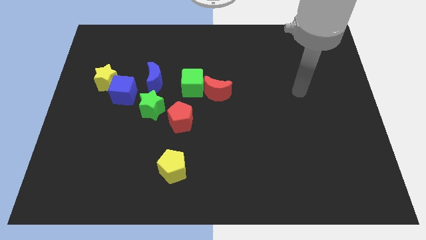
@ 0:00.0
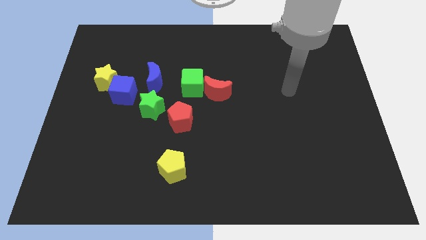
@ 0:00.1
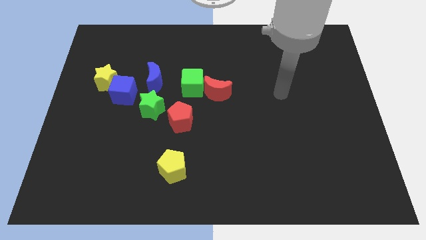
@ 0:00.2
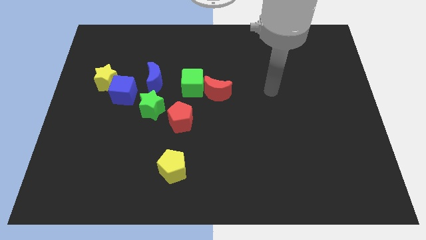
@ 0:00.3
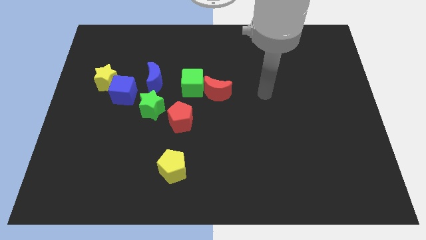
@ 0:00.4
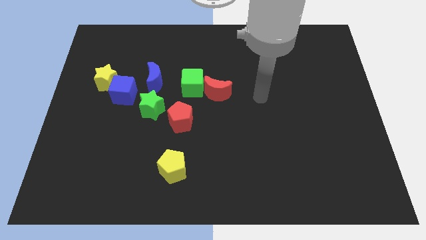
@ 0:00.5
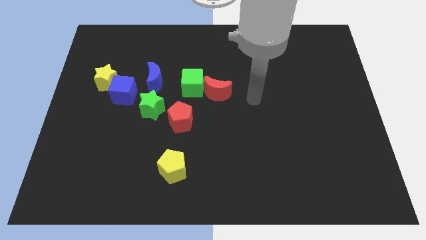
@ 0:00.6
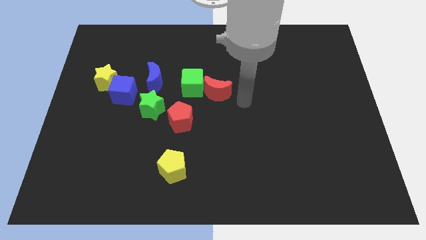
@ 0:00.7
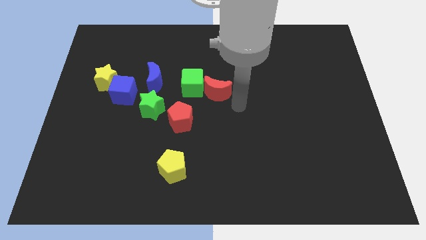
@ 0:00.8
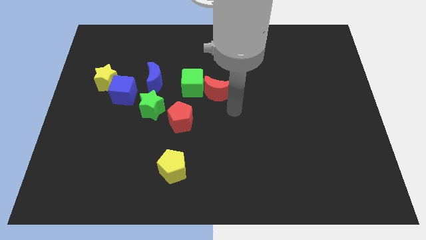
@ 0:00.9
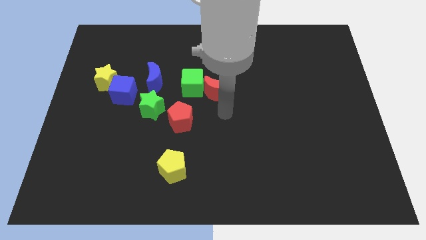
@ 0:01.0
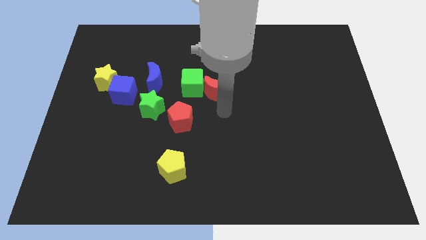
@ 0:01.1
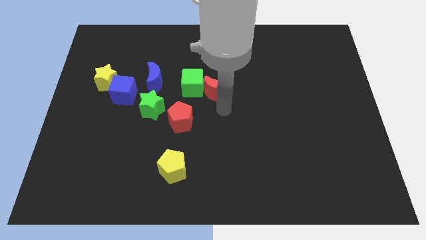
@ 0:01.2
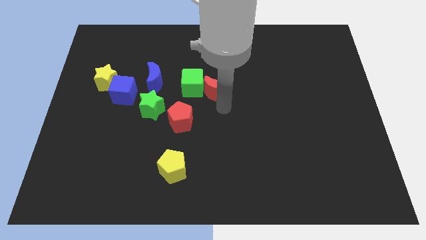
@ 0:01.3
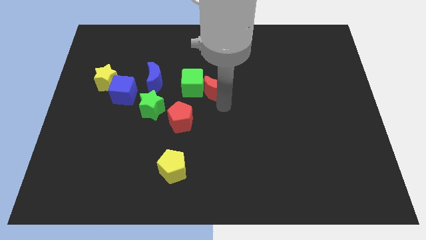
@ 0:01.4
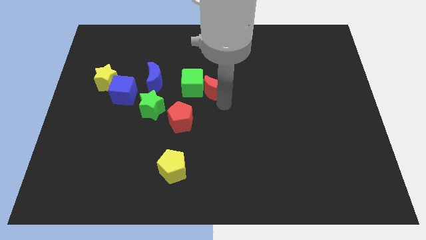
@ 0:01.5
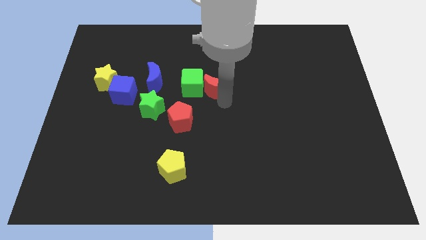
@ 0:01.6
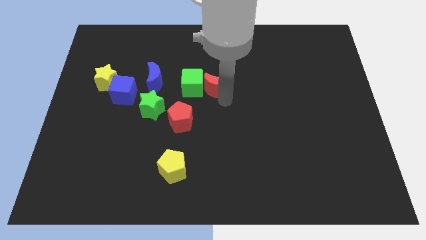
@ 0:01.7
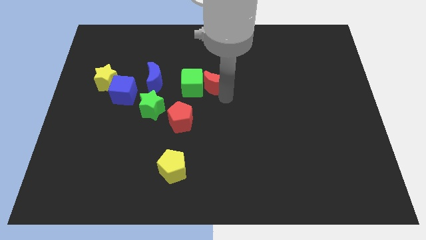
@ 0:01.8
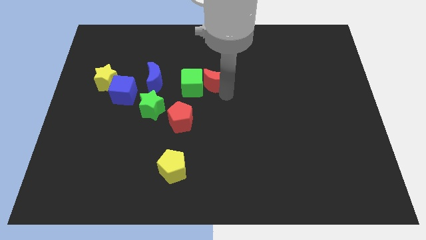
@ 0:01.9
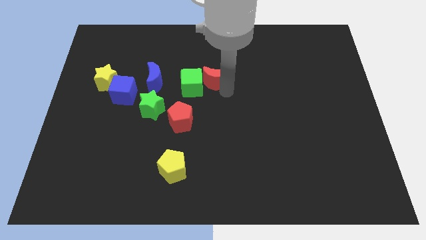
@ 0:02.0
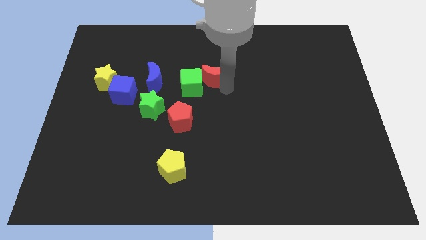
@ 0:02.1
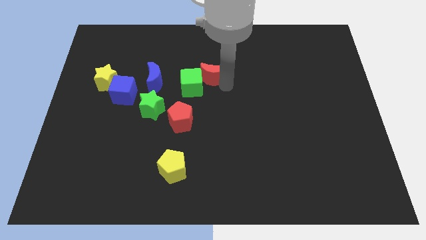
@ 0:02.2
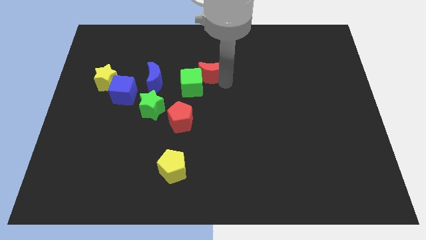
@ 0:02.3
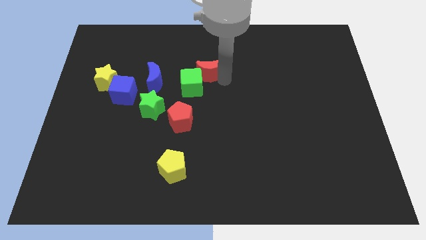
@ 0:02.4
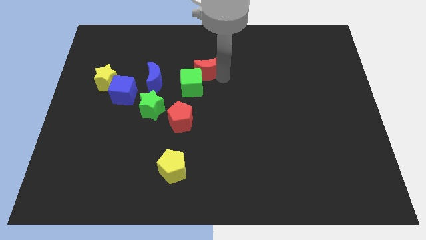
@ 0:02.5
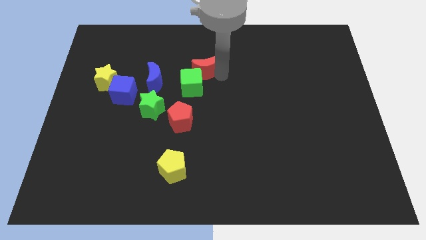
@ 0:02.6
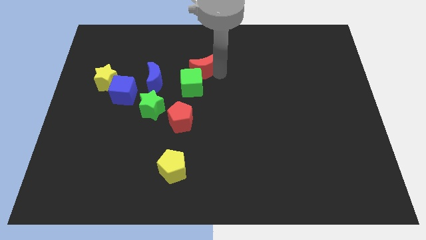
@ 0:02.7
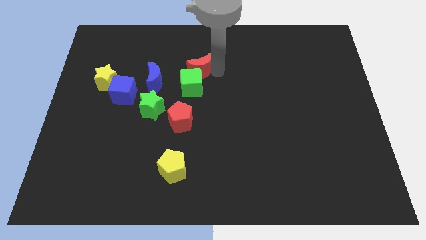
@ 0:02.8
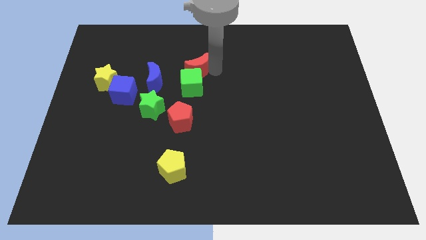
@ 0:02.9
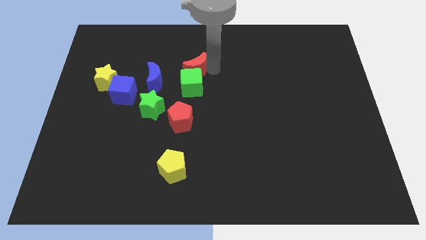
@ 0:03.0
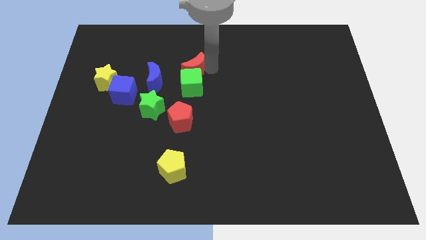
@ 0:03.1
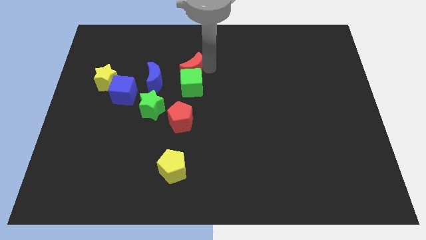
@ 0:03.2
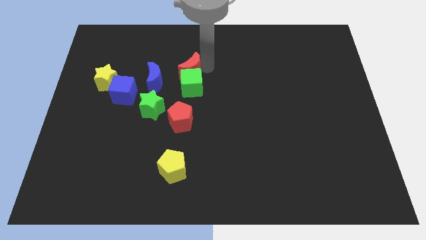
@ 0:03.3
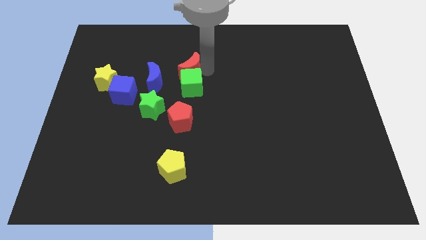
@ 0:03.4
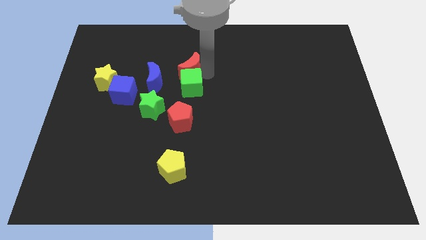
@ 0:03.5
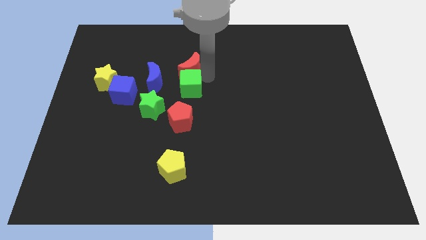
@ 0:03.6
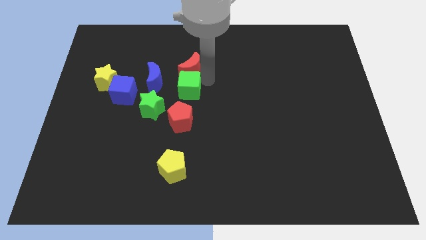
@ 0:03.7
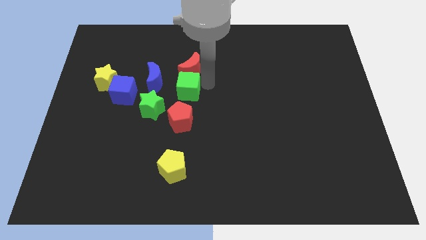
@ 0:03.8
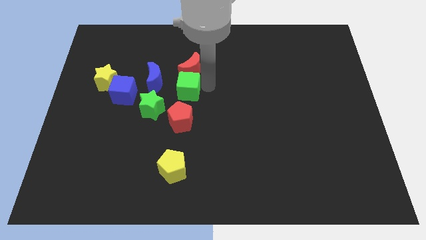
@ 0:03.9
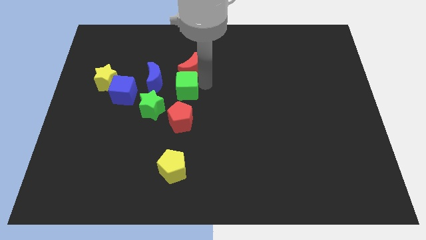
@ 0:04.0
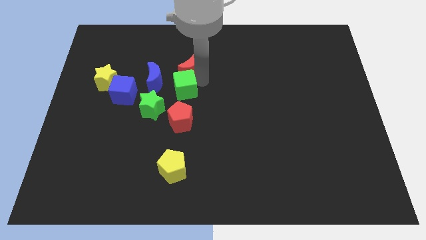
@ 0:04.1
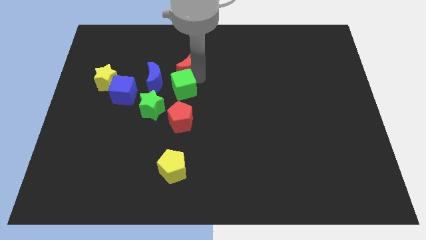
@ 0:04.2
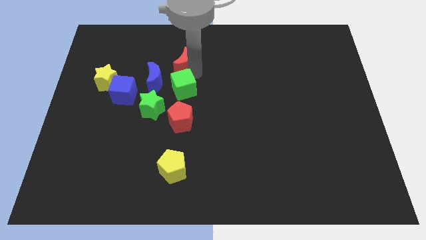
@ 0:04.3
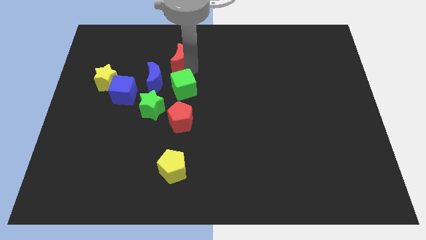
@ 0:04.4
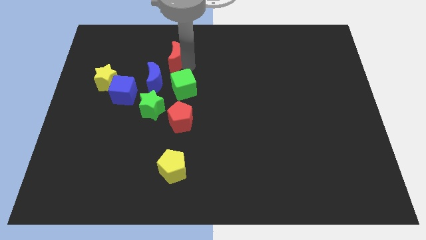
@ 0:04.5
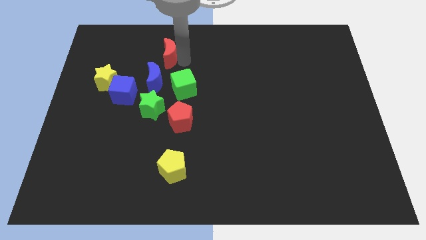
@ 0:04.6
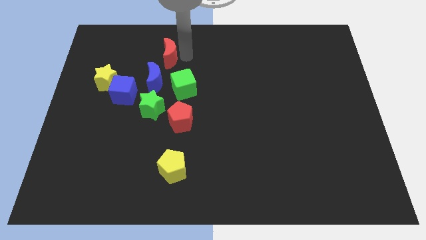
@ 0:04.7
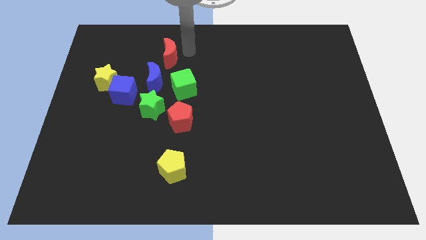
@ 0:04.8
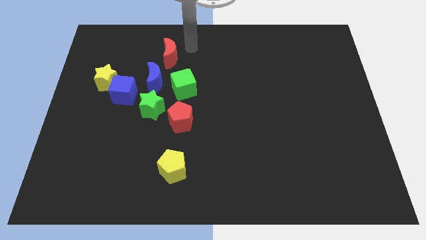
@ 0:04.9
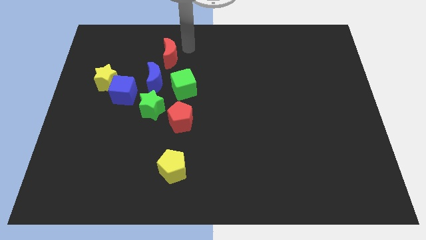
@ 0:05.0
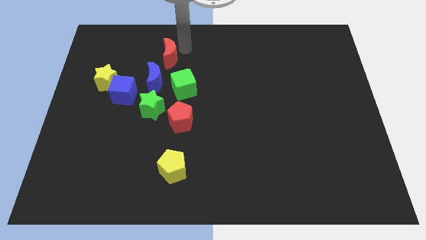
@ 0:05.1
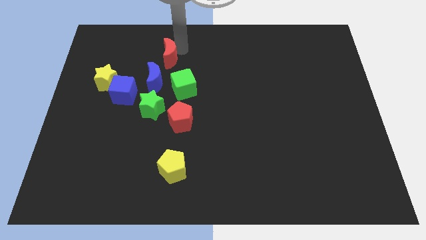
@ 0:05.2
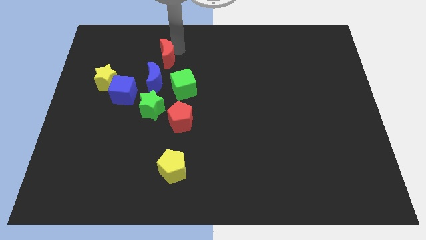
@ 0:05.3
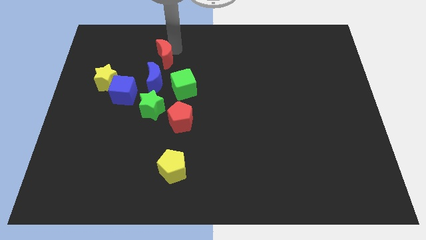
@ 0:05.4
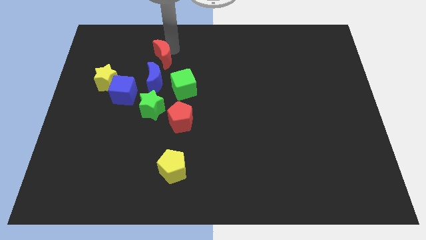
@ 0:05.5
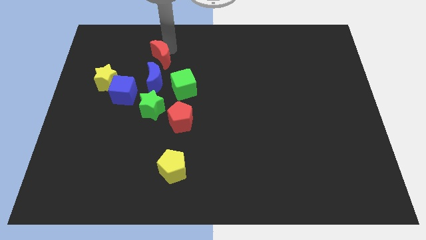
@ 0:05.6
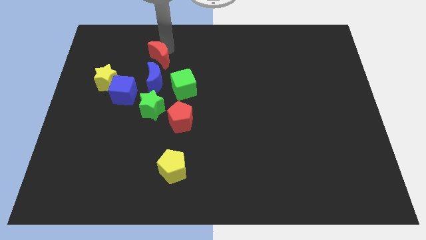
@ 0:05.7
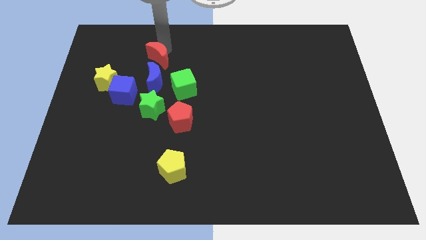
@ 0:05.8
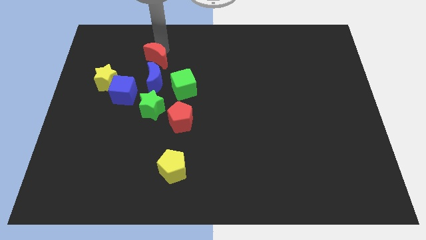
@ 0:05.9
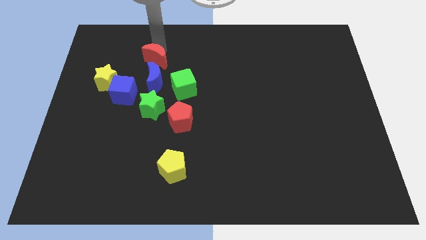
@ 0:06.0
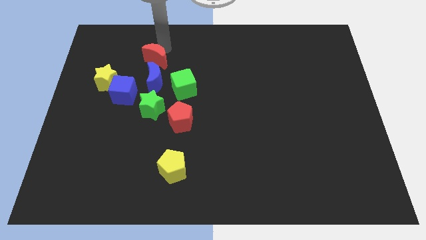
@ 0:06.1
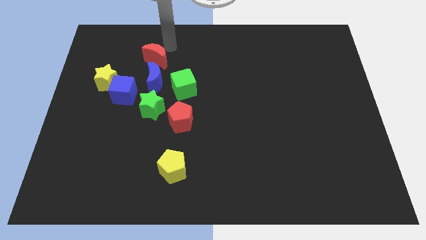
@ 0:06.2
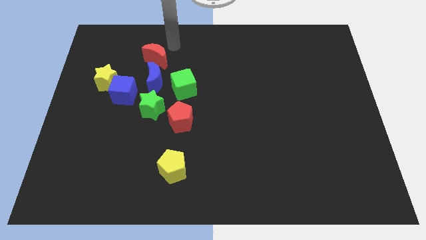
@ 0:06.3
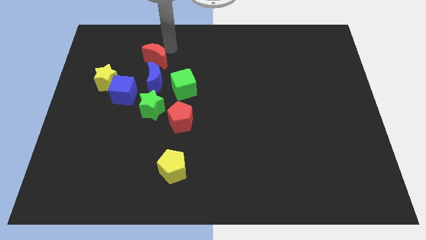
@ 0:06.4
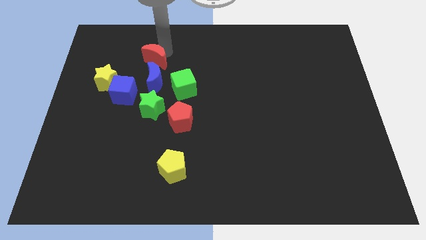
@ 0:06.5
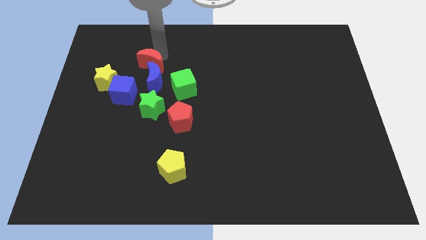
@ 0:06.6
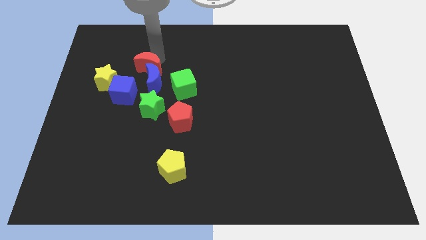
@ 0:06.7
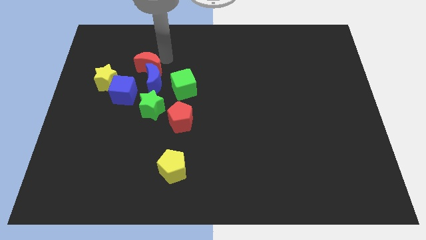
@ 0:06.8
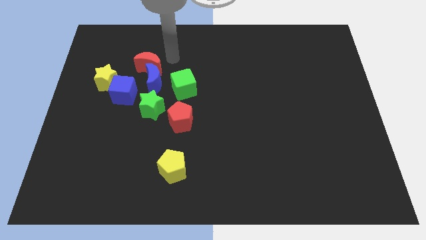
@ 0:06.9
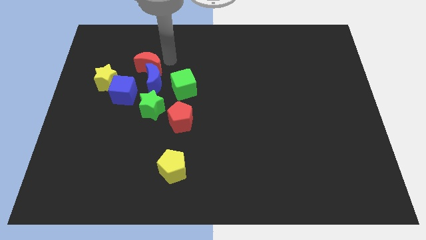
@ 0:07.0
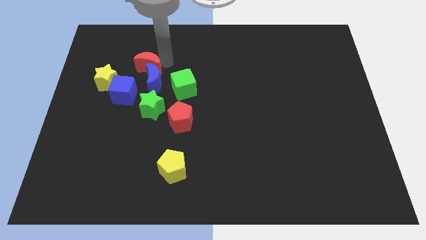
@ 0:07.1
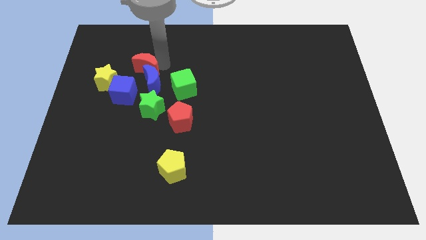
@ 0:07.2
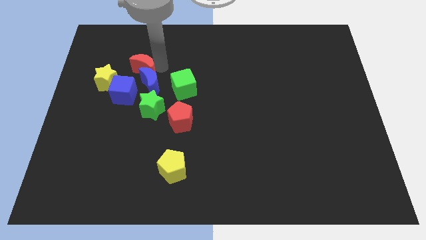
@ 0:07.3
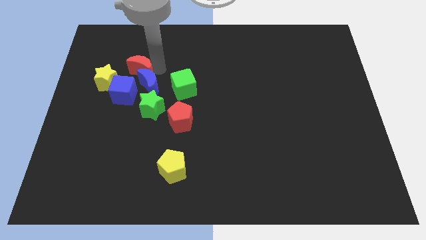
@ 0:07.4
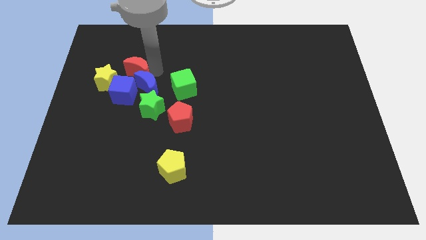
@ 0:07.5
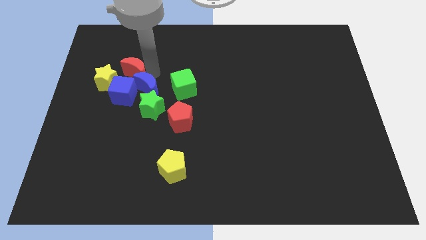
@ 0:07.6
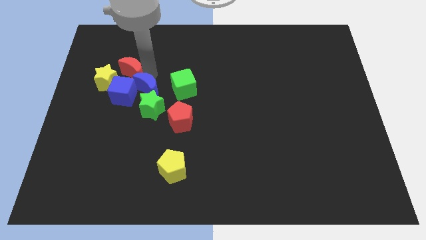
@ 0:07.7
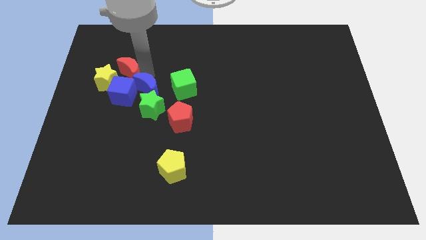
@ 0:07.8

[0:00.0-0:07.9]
slide the red moon towards the yellow star
